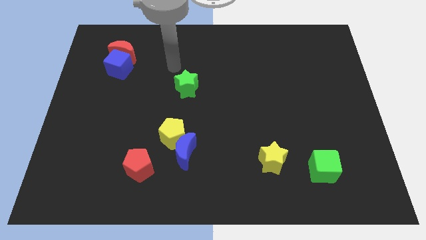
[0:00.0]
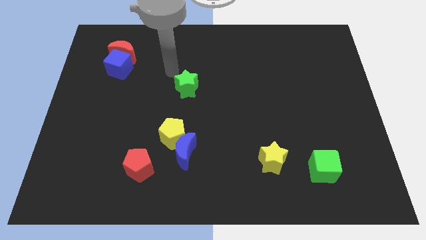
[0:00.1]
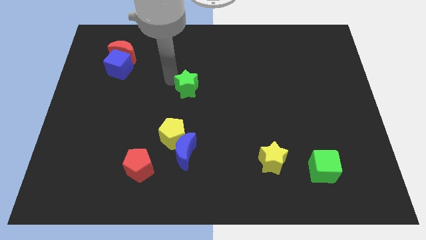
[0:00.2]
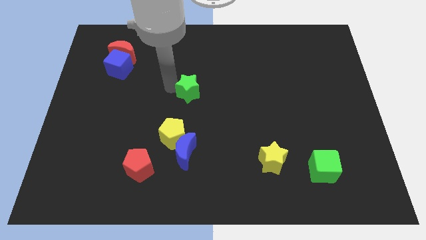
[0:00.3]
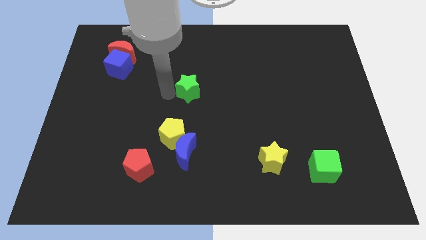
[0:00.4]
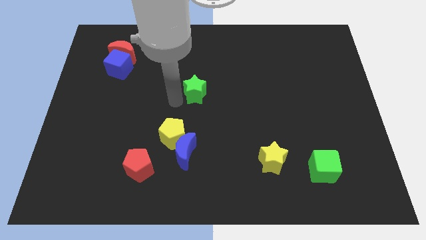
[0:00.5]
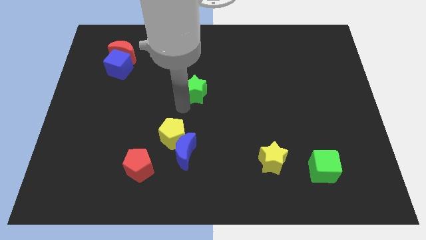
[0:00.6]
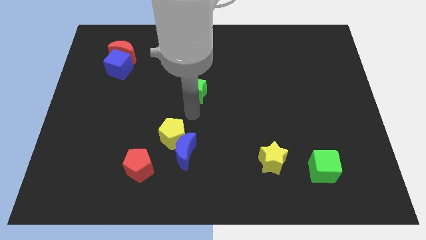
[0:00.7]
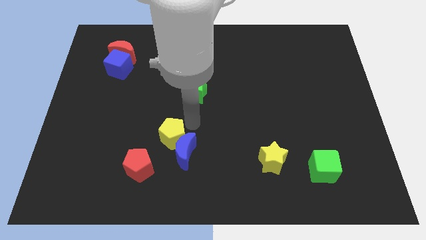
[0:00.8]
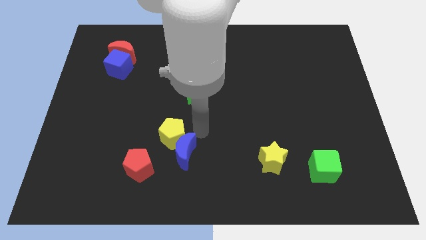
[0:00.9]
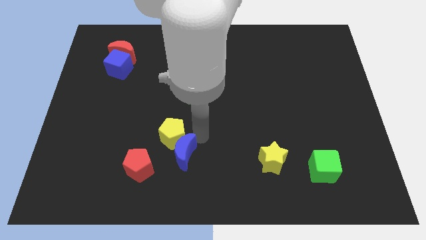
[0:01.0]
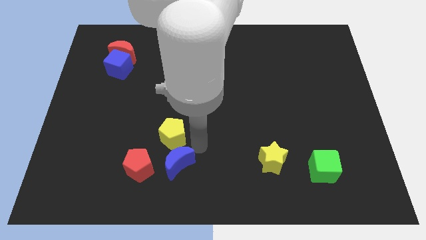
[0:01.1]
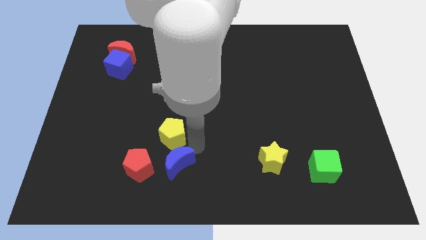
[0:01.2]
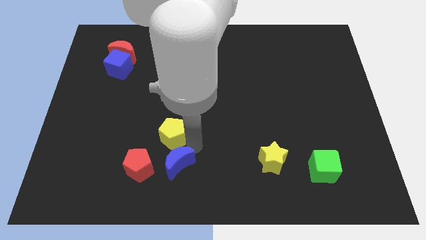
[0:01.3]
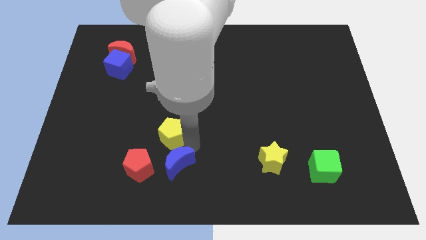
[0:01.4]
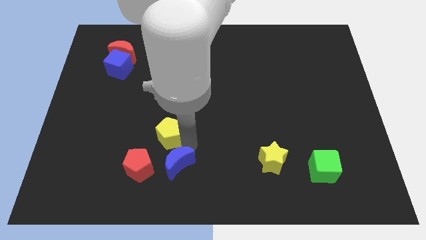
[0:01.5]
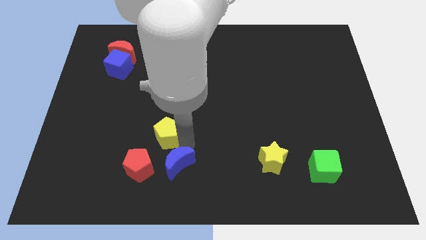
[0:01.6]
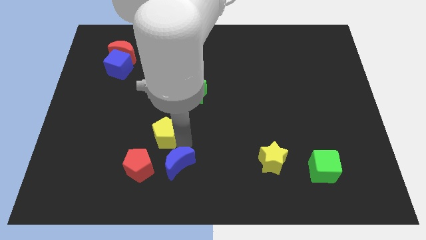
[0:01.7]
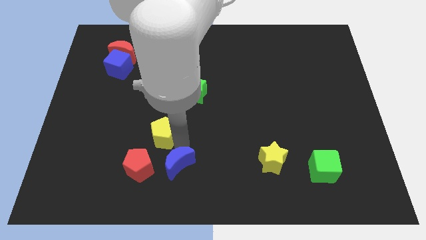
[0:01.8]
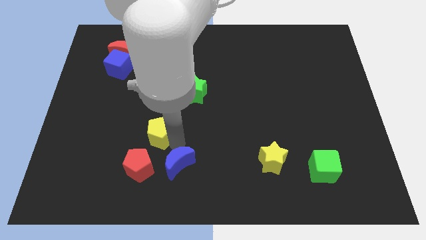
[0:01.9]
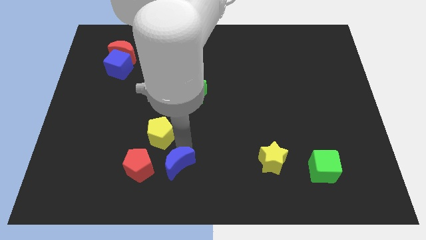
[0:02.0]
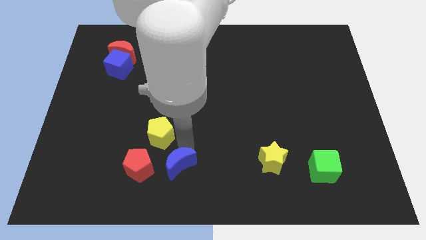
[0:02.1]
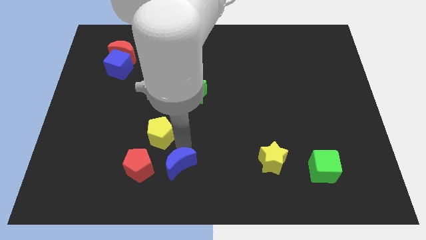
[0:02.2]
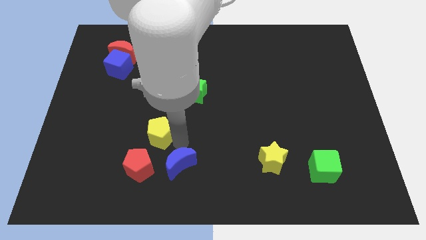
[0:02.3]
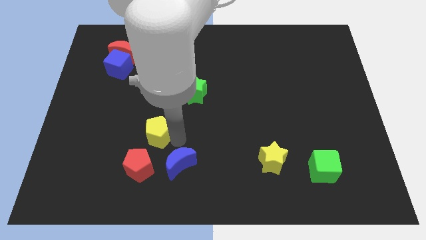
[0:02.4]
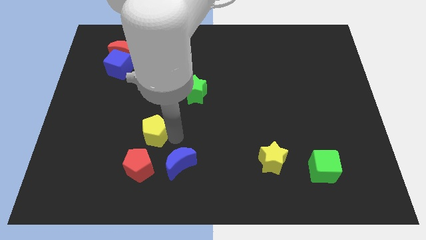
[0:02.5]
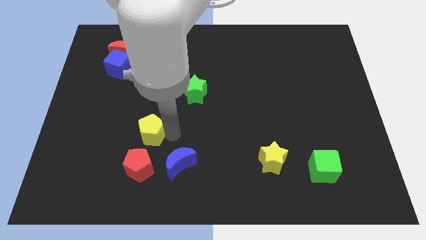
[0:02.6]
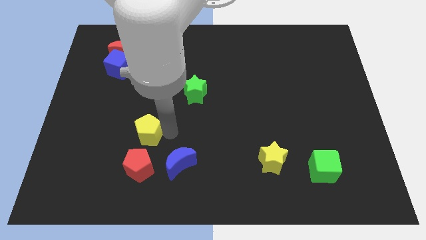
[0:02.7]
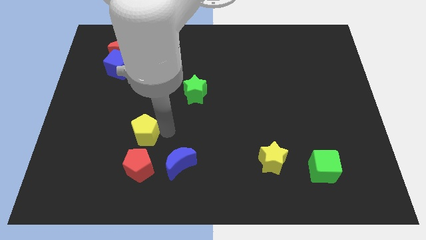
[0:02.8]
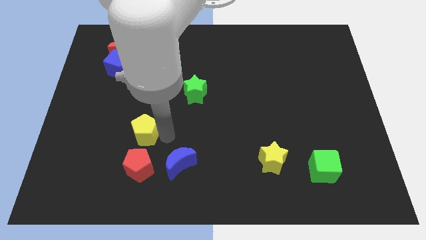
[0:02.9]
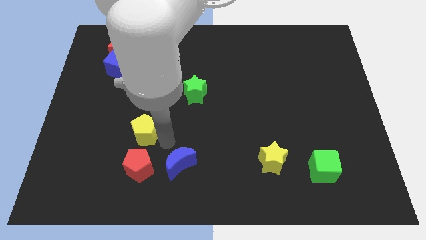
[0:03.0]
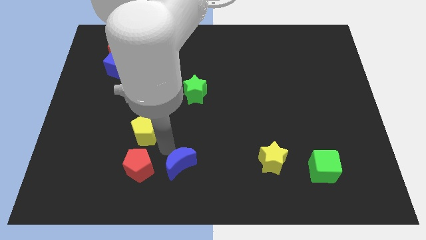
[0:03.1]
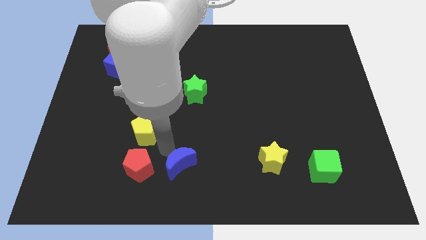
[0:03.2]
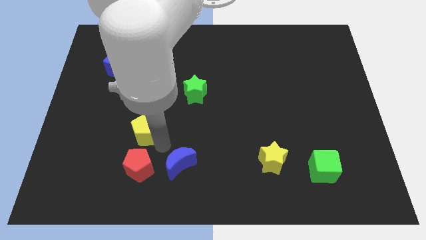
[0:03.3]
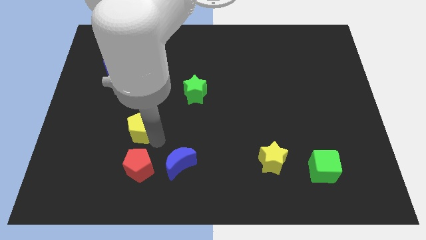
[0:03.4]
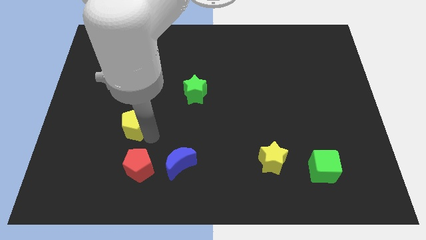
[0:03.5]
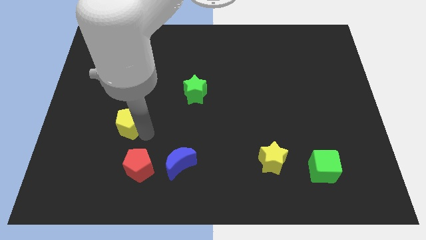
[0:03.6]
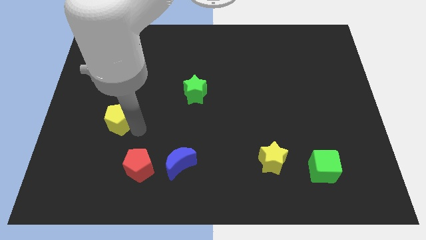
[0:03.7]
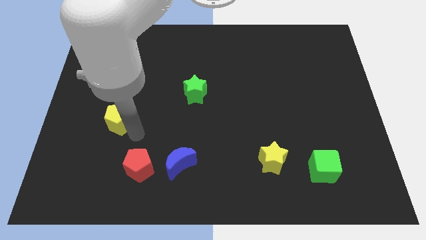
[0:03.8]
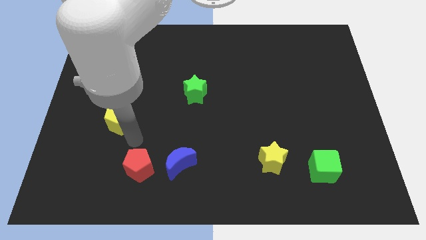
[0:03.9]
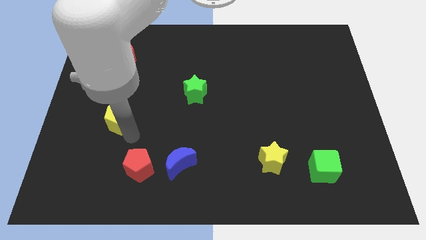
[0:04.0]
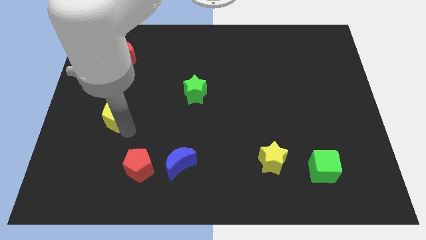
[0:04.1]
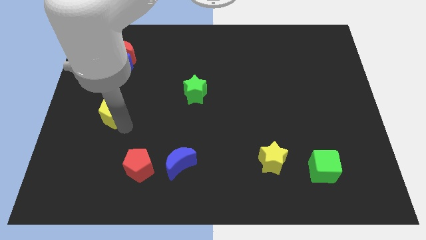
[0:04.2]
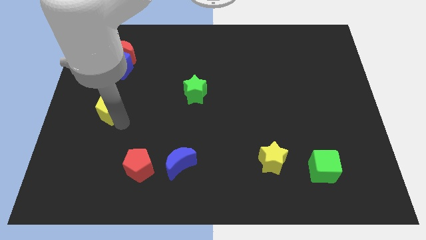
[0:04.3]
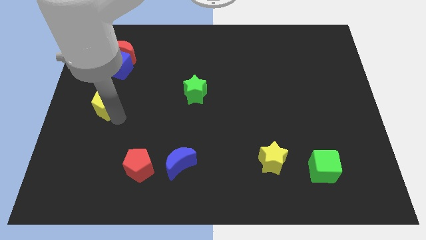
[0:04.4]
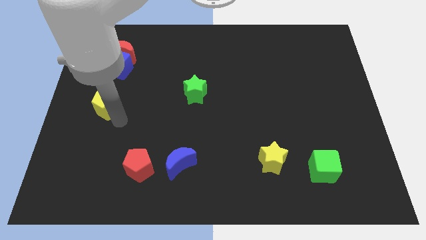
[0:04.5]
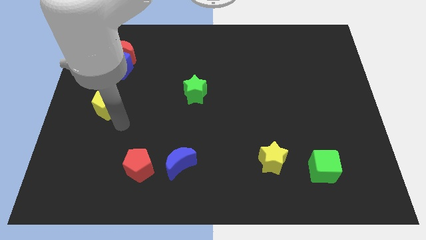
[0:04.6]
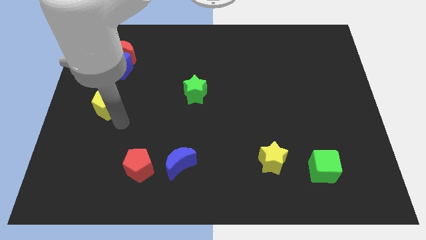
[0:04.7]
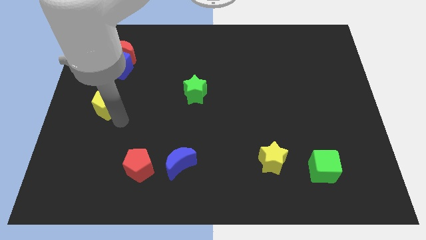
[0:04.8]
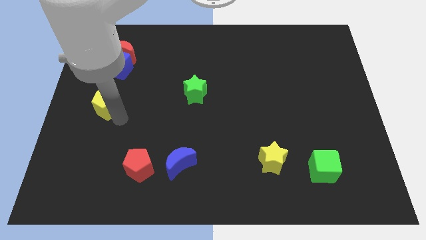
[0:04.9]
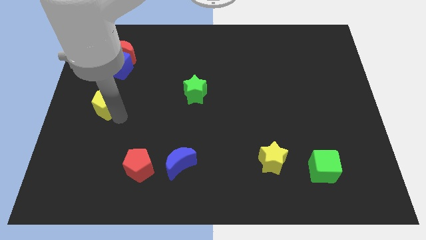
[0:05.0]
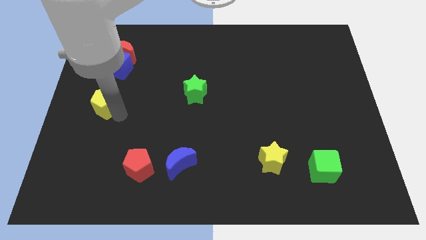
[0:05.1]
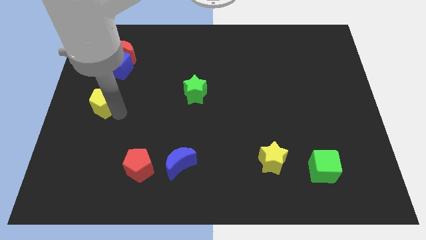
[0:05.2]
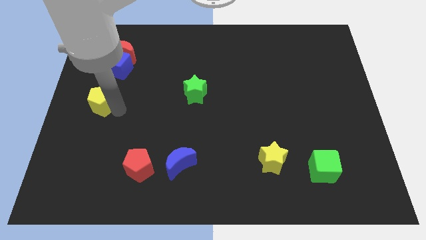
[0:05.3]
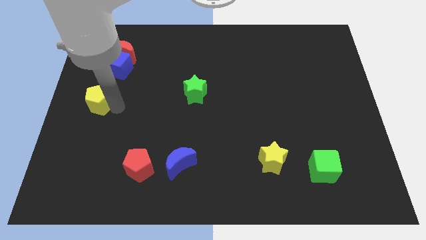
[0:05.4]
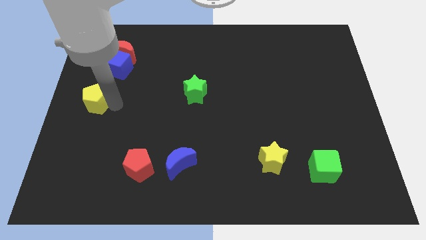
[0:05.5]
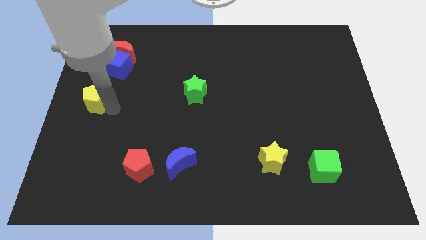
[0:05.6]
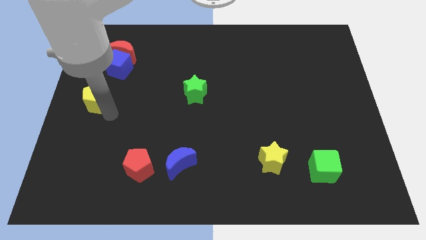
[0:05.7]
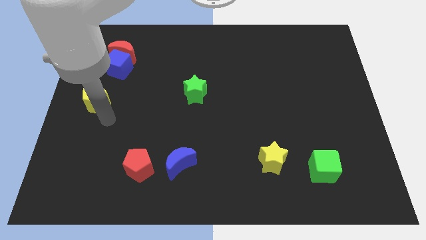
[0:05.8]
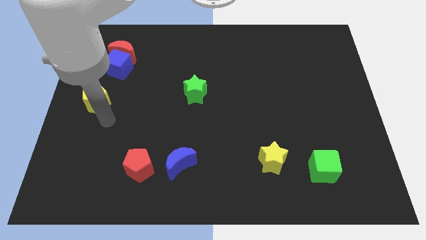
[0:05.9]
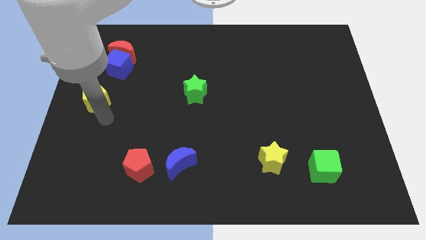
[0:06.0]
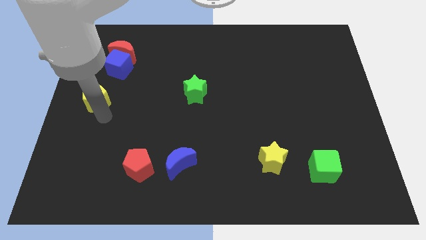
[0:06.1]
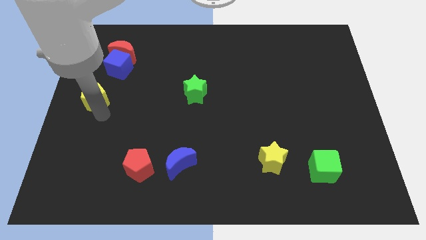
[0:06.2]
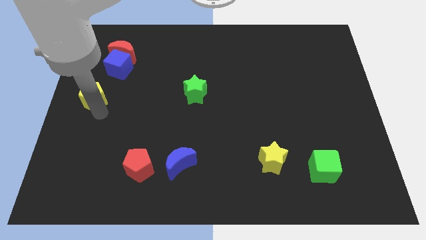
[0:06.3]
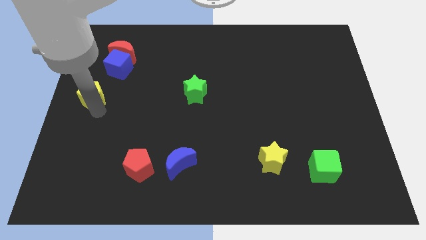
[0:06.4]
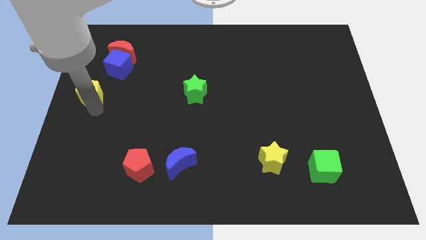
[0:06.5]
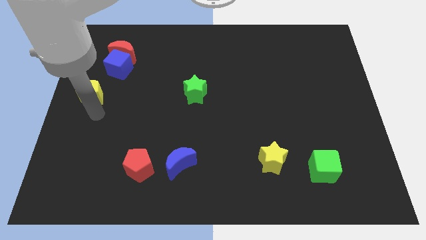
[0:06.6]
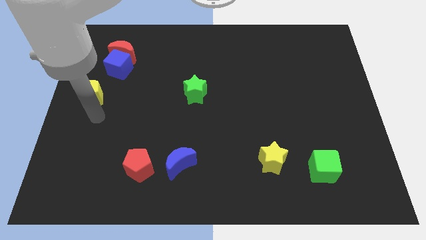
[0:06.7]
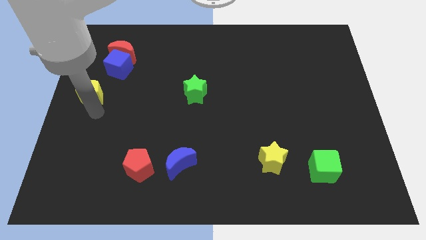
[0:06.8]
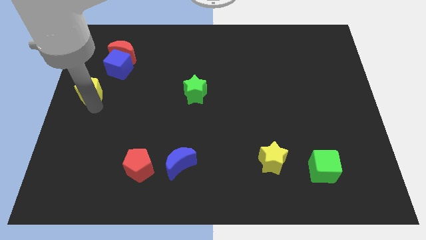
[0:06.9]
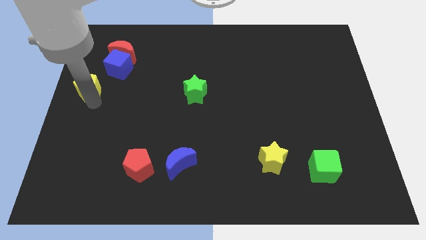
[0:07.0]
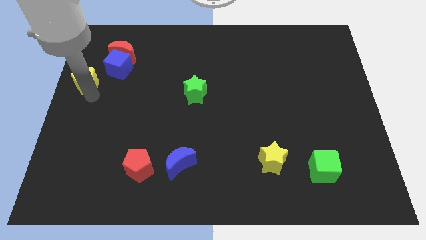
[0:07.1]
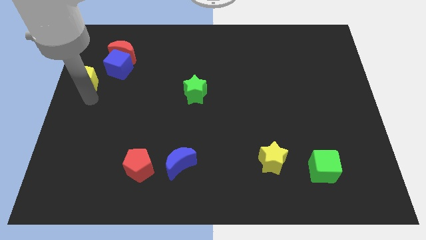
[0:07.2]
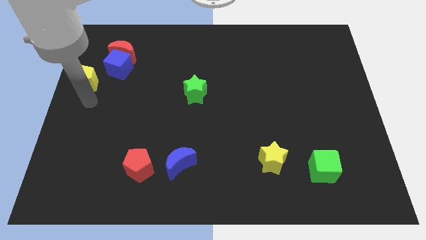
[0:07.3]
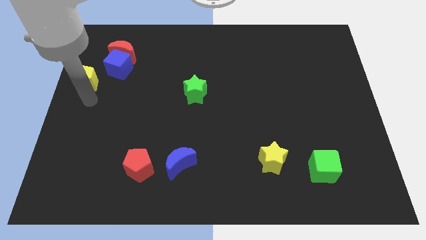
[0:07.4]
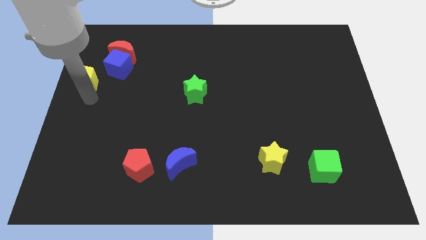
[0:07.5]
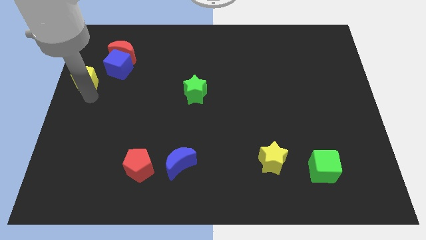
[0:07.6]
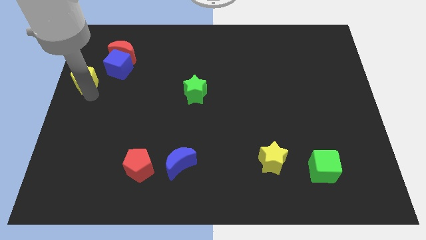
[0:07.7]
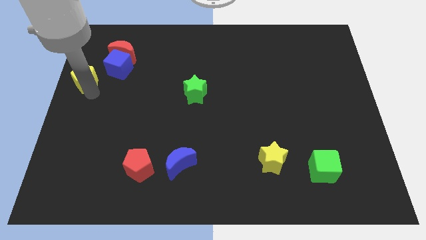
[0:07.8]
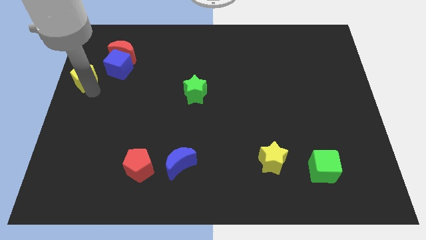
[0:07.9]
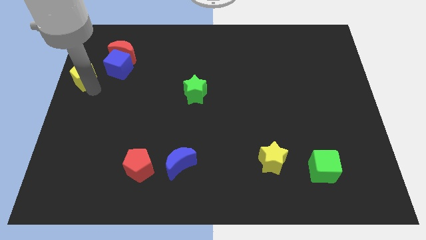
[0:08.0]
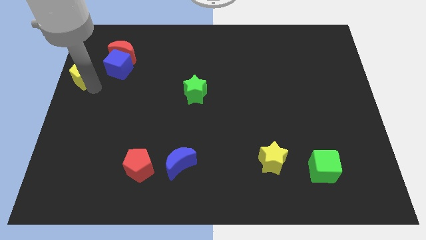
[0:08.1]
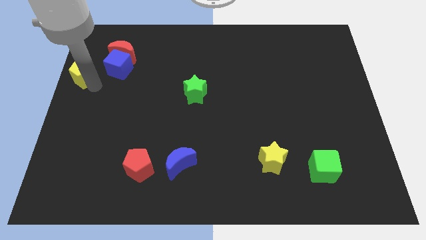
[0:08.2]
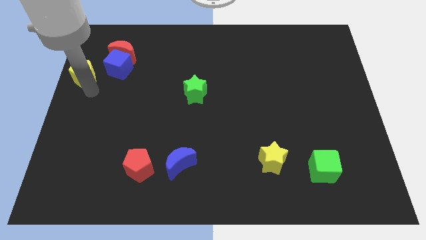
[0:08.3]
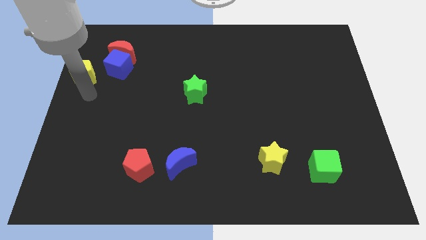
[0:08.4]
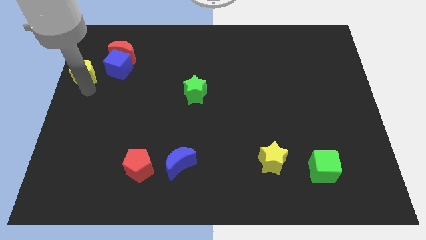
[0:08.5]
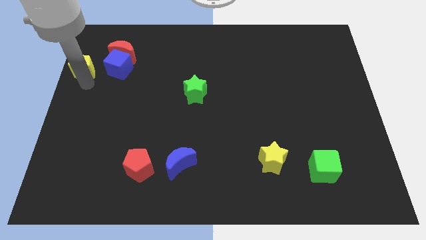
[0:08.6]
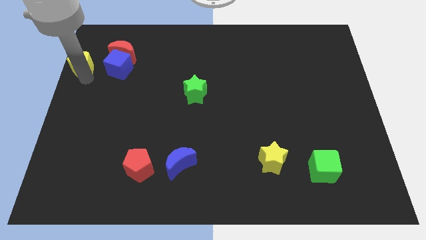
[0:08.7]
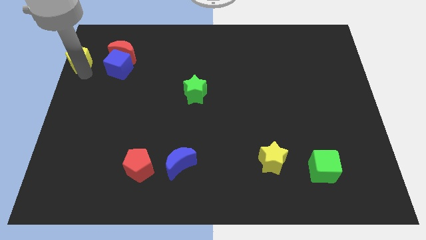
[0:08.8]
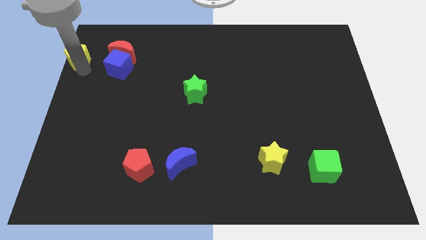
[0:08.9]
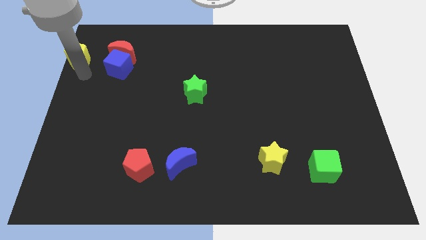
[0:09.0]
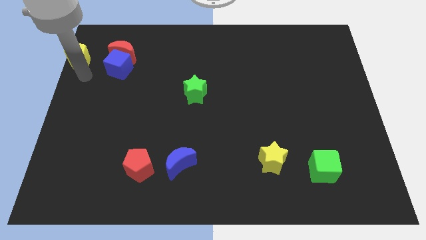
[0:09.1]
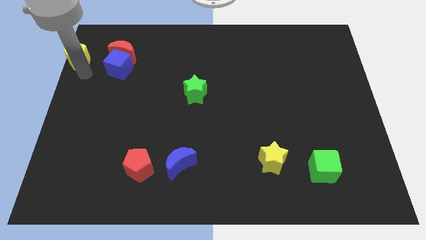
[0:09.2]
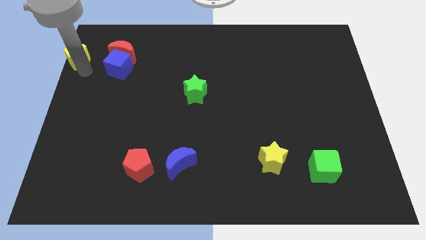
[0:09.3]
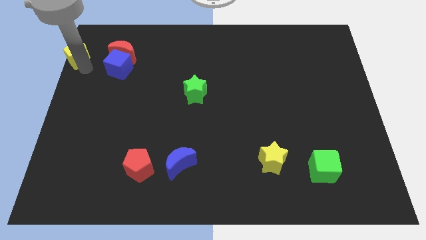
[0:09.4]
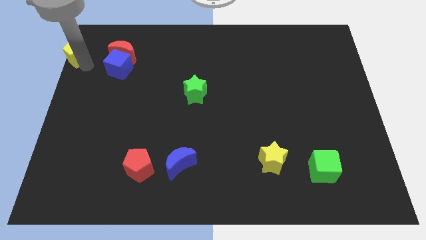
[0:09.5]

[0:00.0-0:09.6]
move the yellow pentagon to the top left corner
